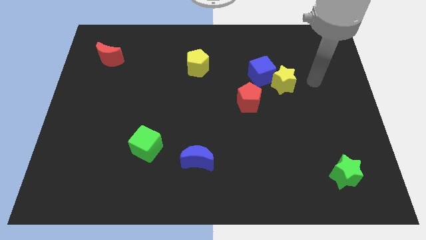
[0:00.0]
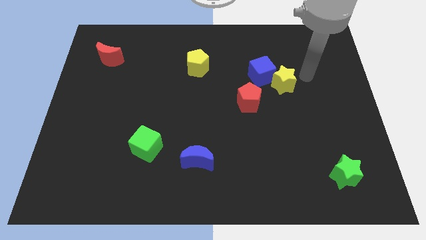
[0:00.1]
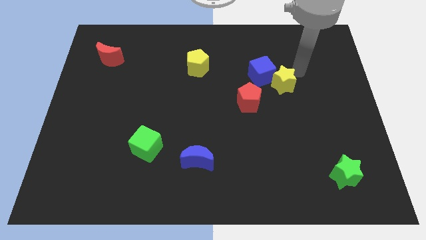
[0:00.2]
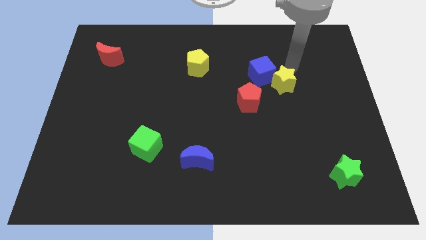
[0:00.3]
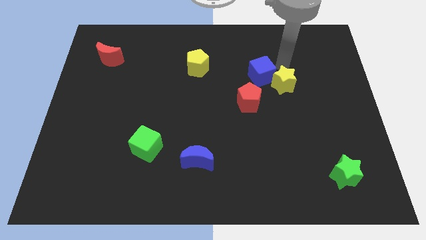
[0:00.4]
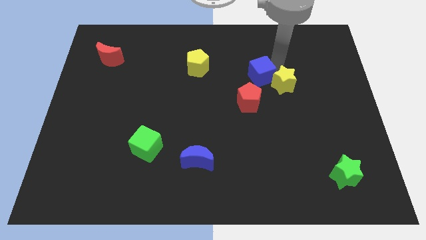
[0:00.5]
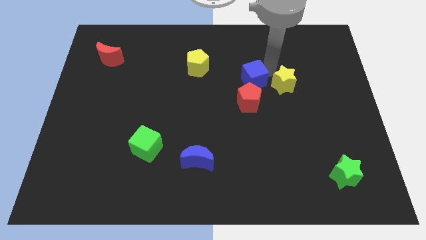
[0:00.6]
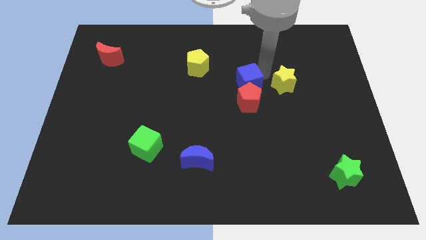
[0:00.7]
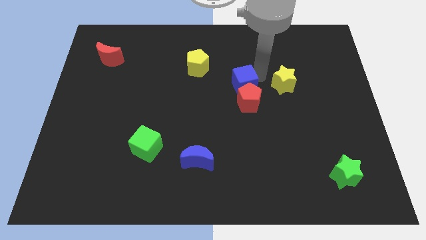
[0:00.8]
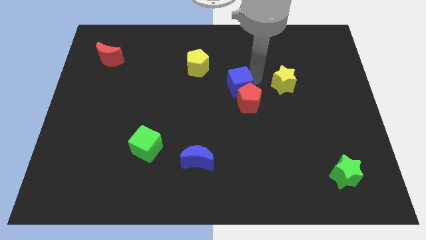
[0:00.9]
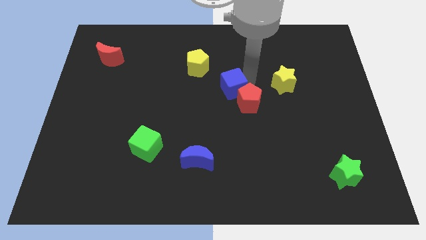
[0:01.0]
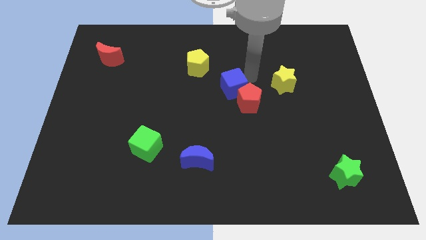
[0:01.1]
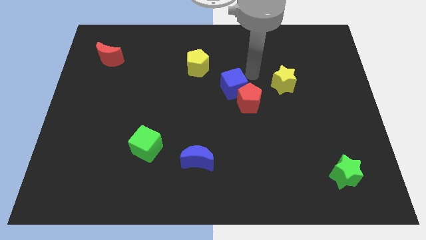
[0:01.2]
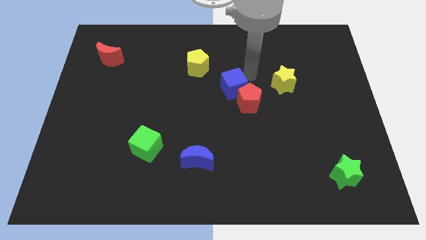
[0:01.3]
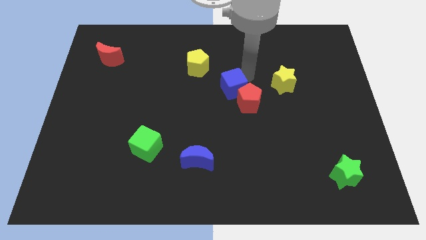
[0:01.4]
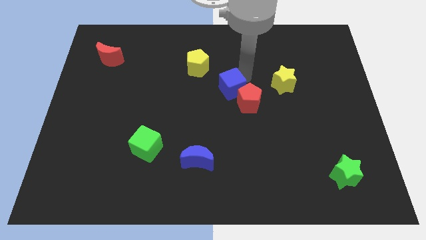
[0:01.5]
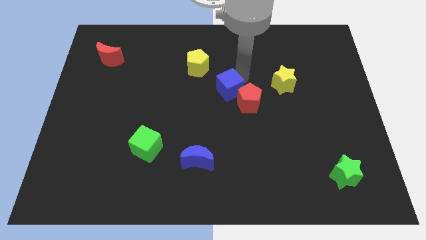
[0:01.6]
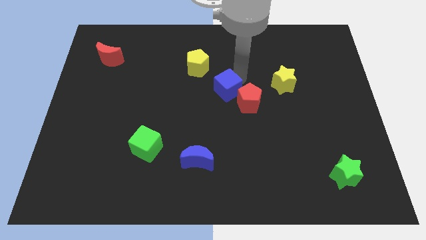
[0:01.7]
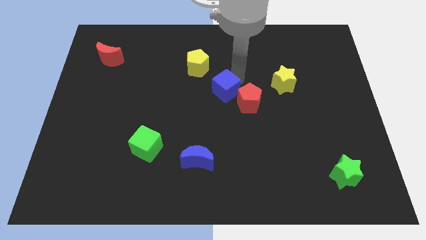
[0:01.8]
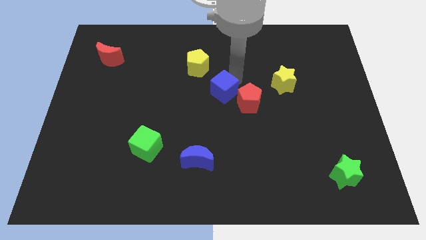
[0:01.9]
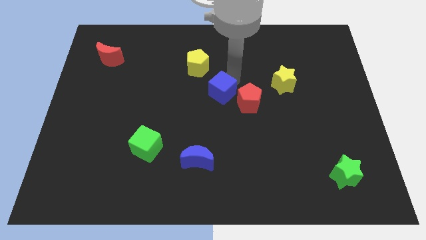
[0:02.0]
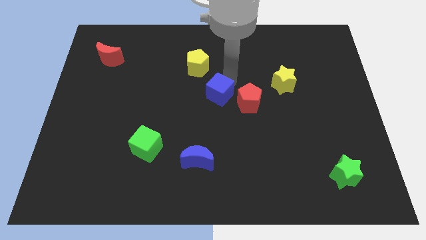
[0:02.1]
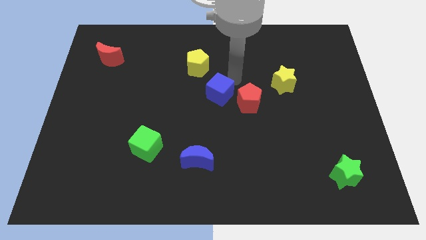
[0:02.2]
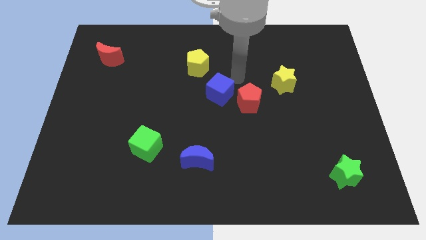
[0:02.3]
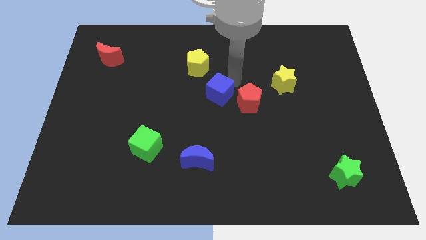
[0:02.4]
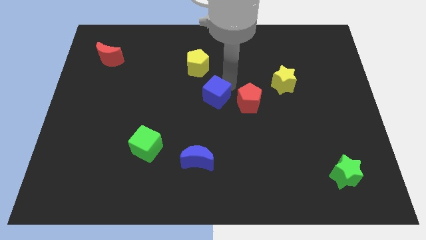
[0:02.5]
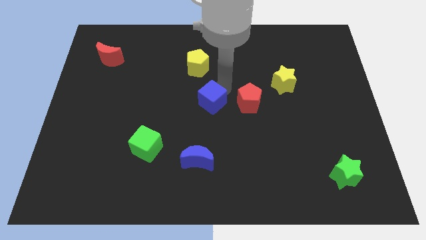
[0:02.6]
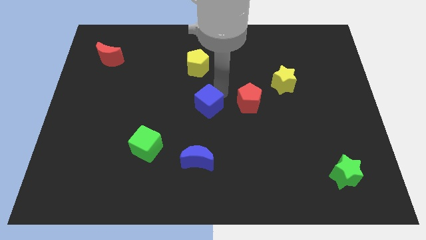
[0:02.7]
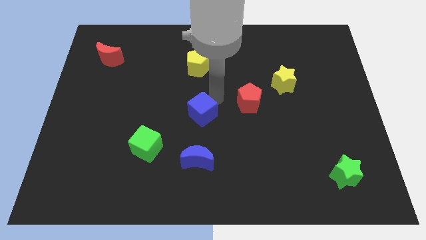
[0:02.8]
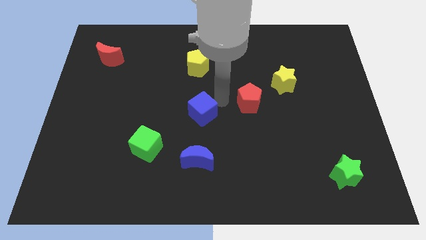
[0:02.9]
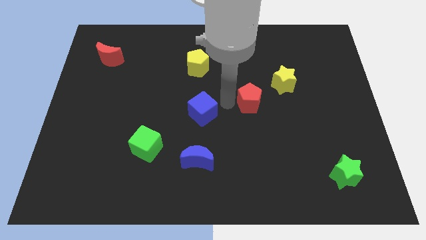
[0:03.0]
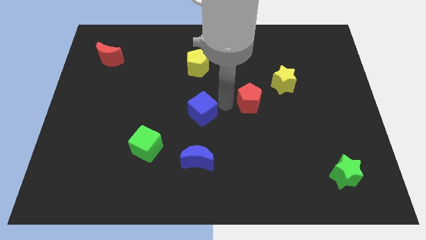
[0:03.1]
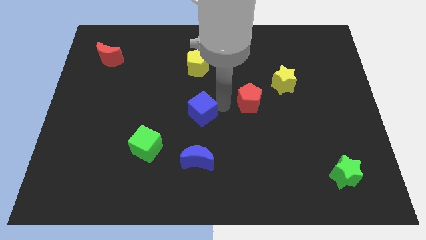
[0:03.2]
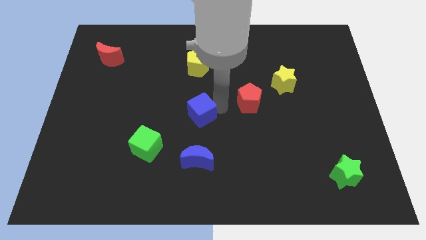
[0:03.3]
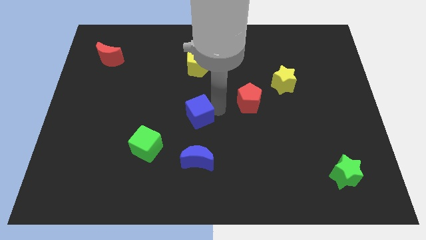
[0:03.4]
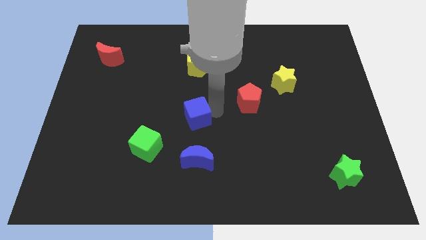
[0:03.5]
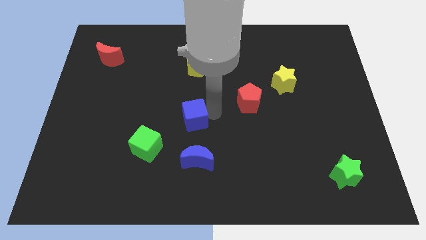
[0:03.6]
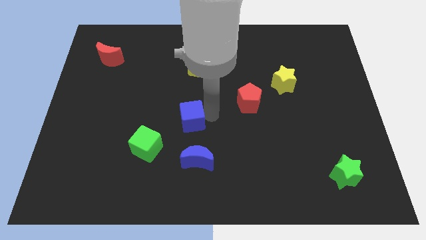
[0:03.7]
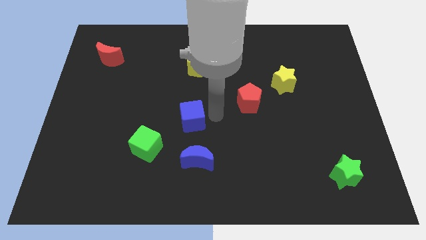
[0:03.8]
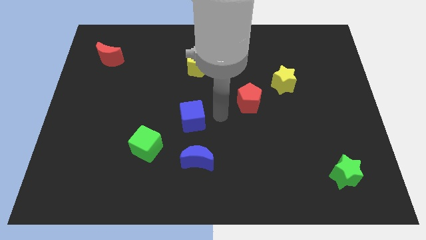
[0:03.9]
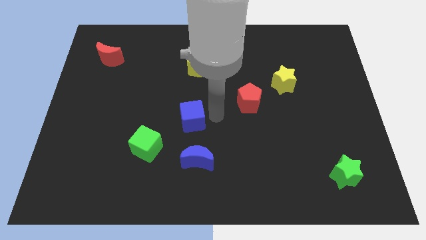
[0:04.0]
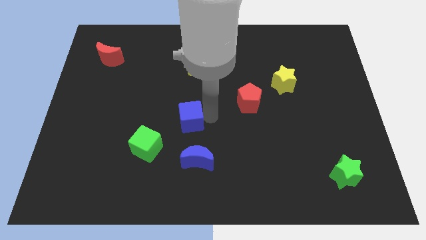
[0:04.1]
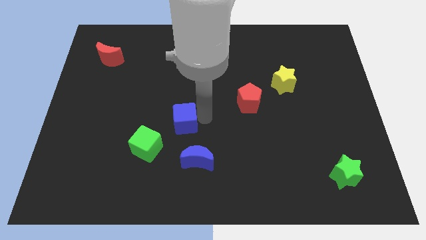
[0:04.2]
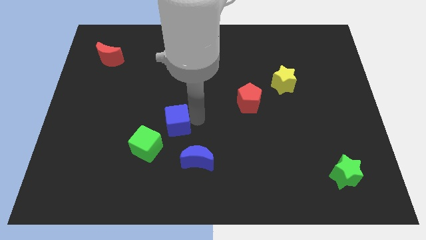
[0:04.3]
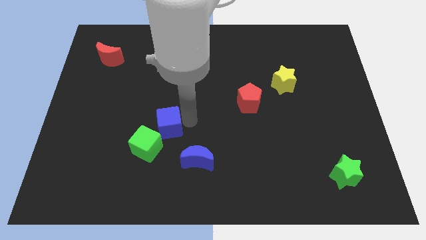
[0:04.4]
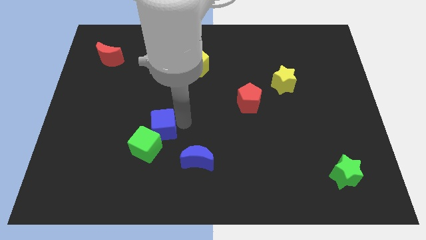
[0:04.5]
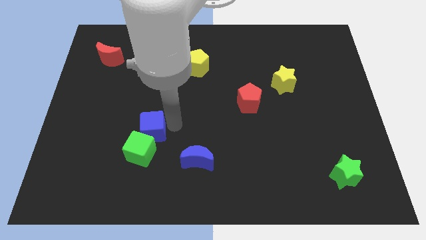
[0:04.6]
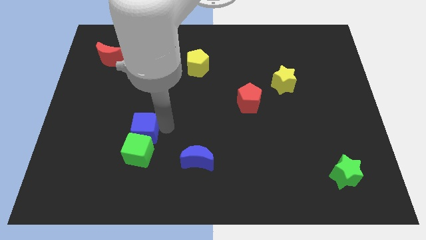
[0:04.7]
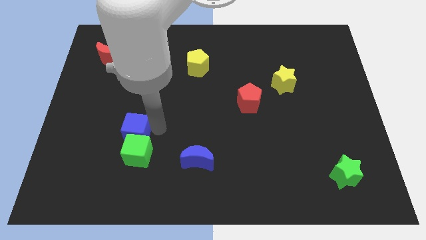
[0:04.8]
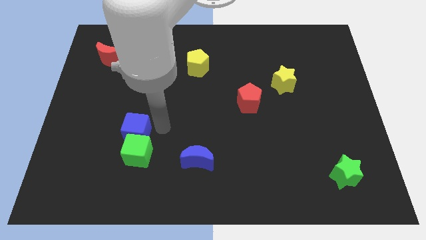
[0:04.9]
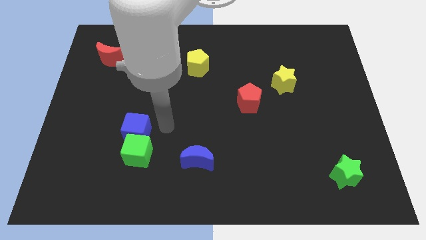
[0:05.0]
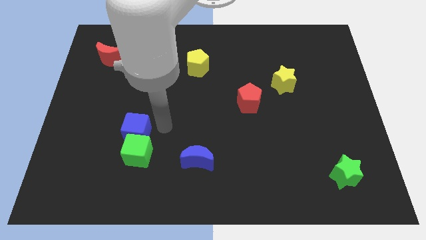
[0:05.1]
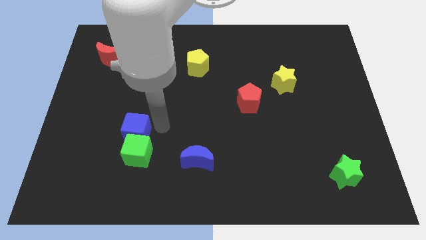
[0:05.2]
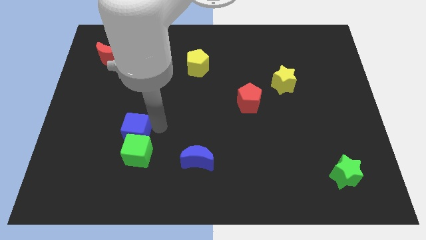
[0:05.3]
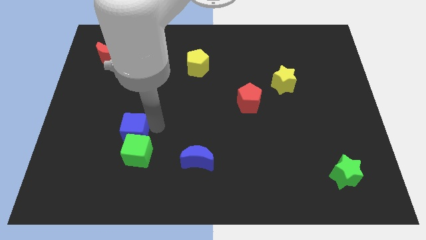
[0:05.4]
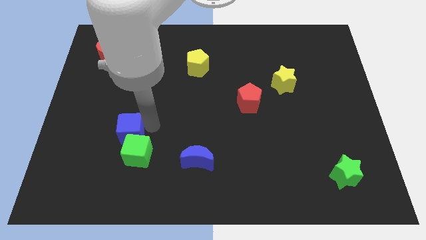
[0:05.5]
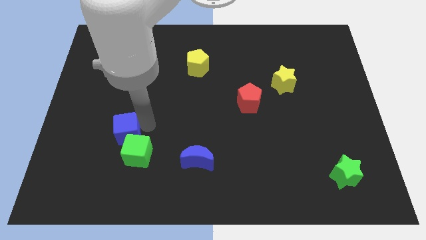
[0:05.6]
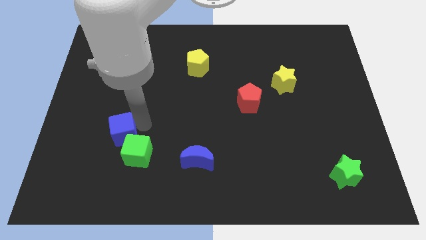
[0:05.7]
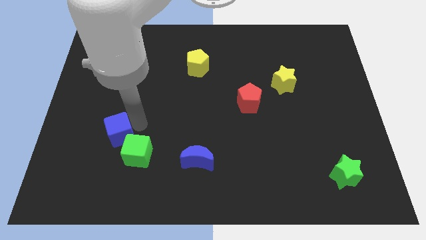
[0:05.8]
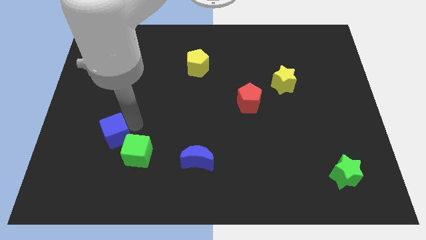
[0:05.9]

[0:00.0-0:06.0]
slide the blue cube left of the green cube

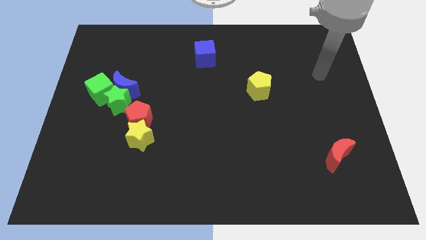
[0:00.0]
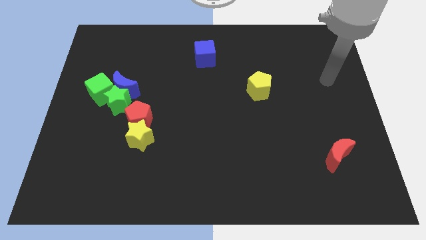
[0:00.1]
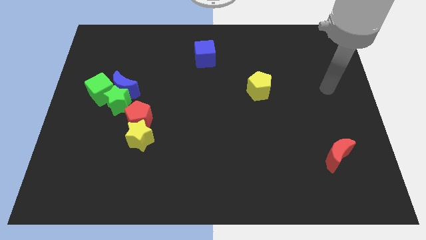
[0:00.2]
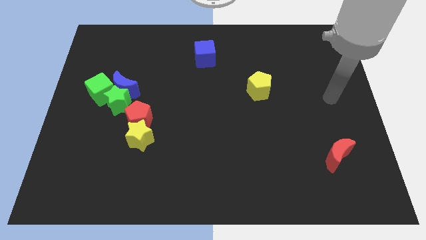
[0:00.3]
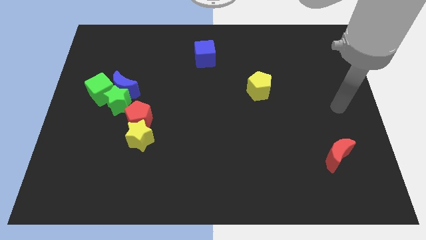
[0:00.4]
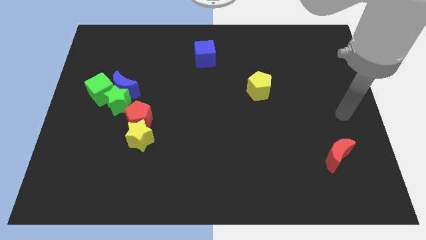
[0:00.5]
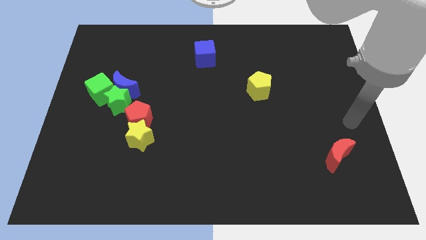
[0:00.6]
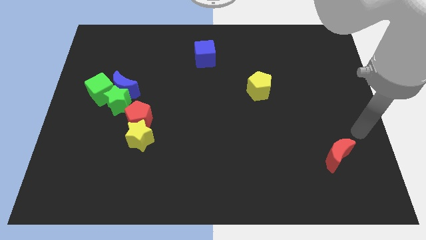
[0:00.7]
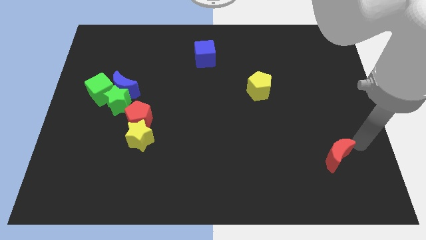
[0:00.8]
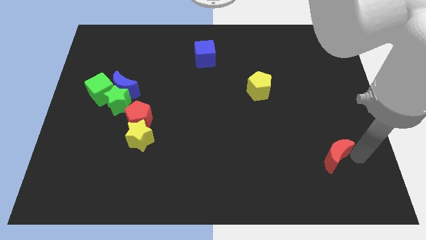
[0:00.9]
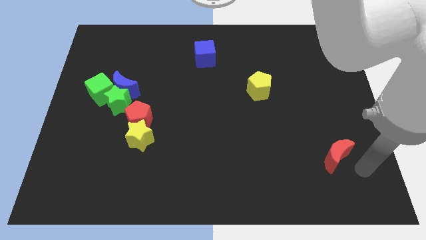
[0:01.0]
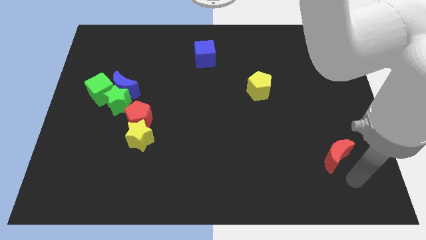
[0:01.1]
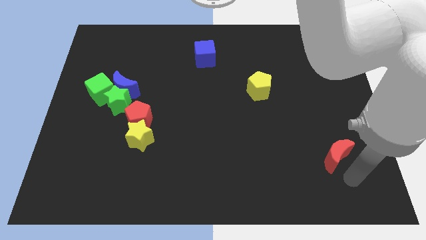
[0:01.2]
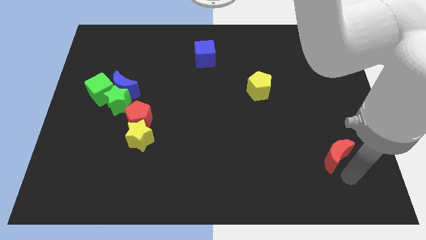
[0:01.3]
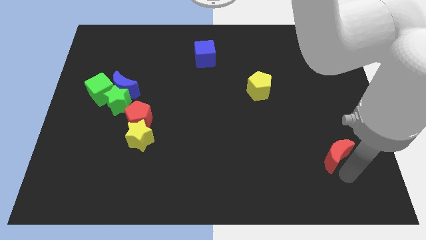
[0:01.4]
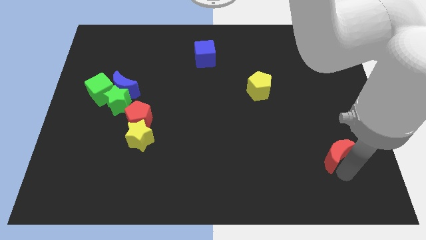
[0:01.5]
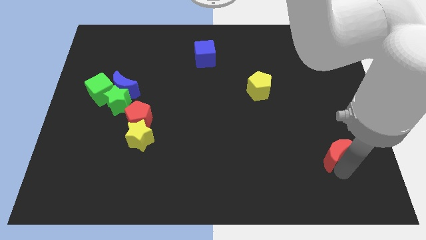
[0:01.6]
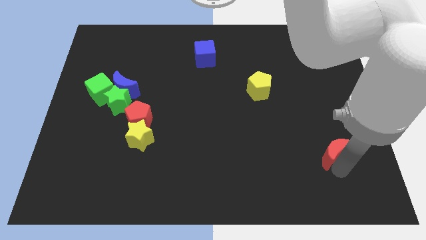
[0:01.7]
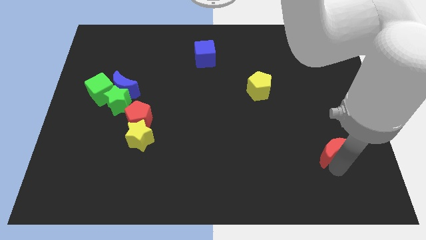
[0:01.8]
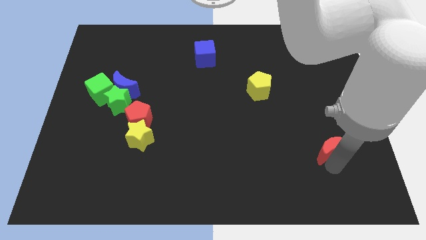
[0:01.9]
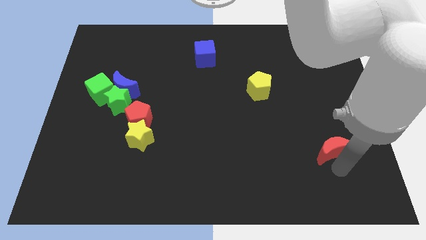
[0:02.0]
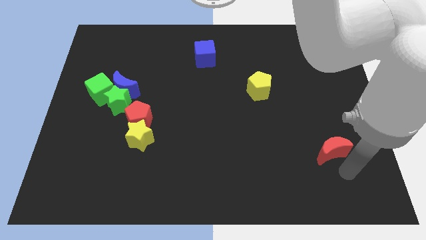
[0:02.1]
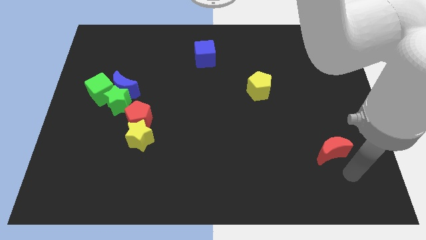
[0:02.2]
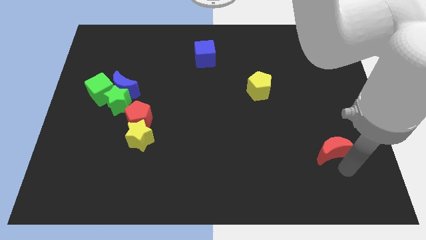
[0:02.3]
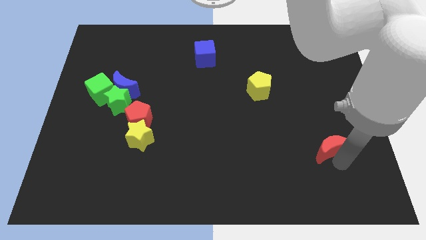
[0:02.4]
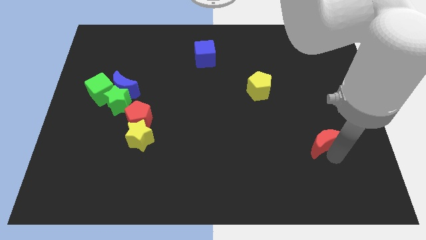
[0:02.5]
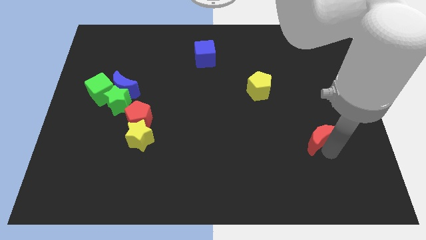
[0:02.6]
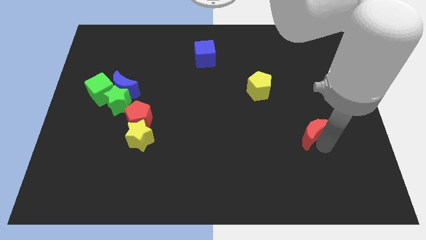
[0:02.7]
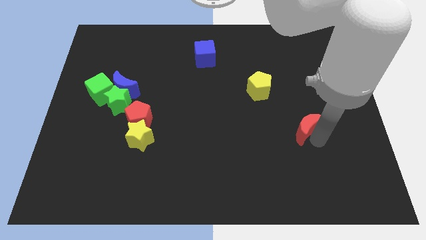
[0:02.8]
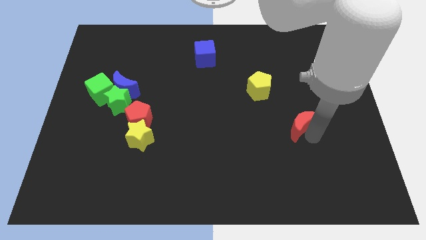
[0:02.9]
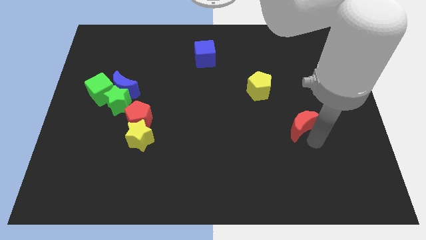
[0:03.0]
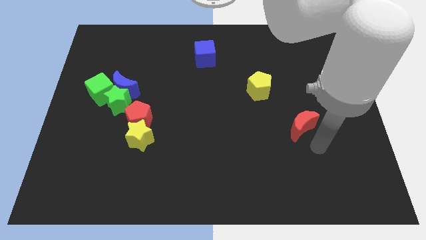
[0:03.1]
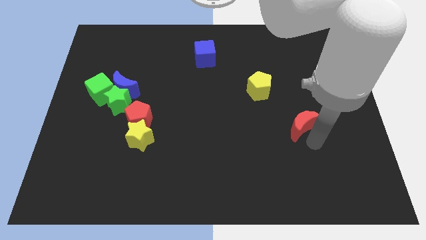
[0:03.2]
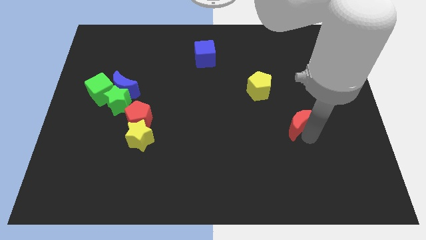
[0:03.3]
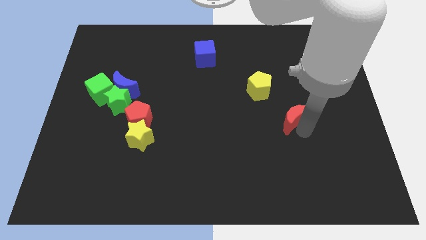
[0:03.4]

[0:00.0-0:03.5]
move the red moon to the bottom right side of the yellow pentagon
